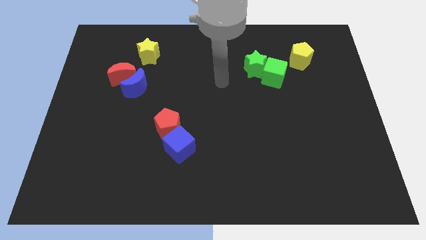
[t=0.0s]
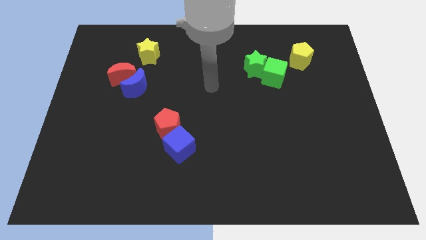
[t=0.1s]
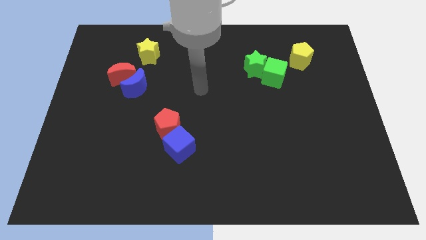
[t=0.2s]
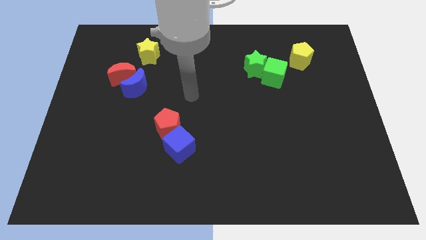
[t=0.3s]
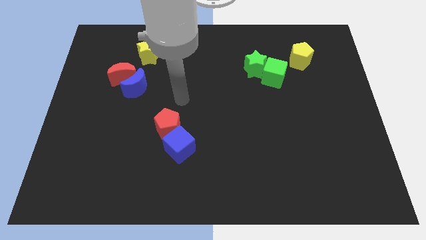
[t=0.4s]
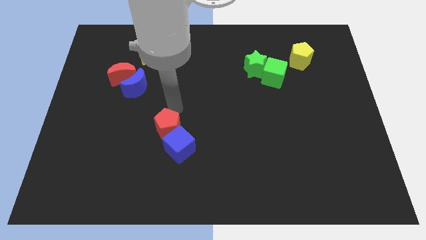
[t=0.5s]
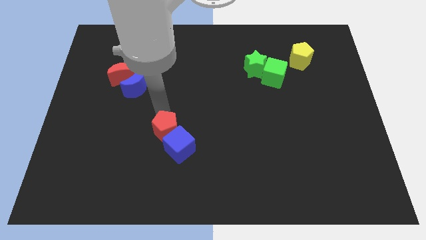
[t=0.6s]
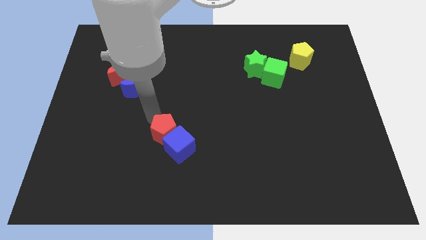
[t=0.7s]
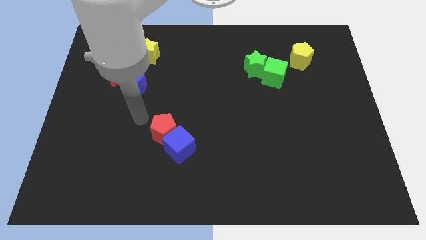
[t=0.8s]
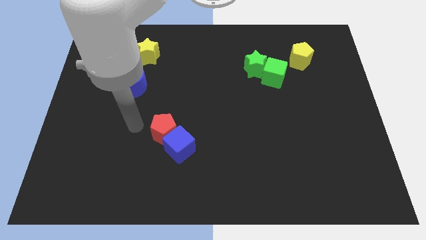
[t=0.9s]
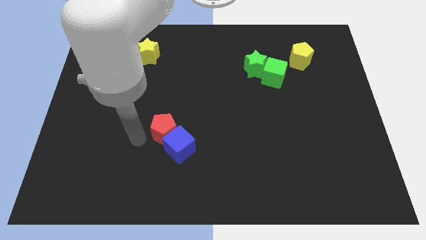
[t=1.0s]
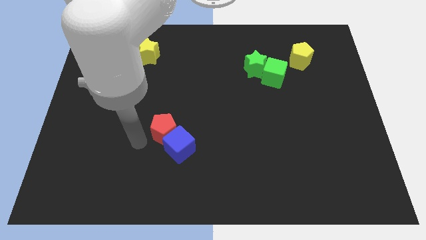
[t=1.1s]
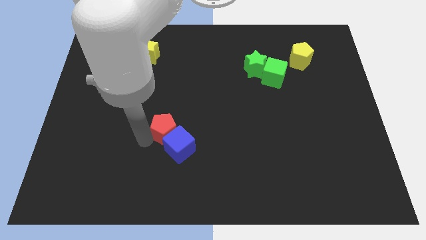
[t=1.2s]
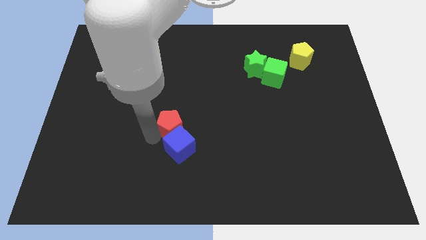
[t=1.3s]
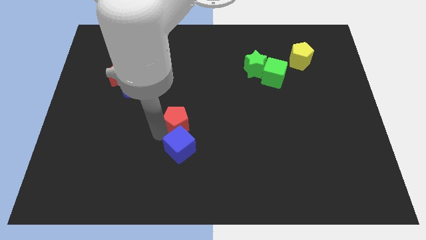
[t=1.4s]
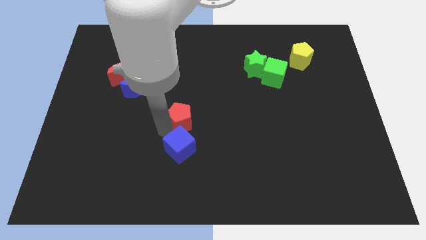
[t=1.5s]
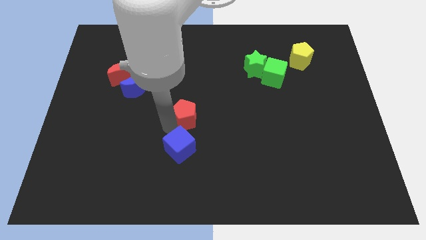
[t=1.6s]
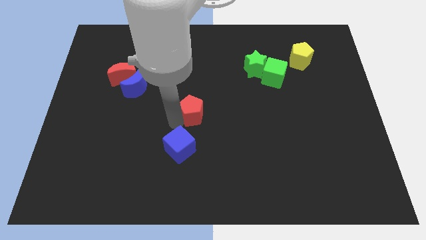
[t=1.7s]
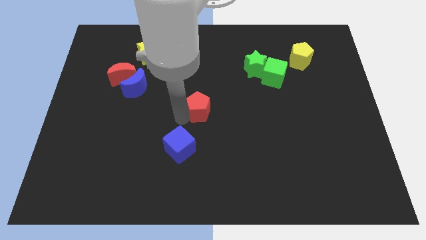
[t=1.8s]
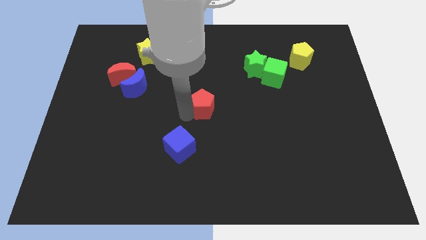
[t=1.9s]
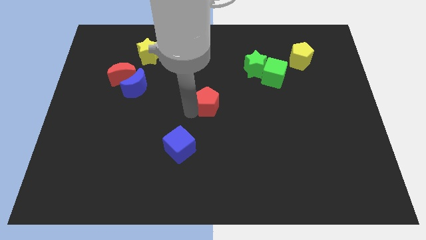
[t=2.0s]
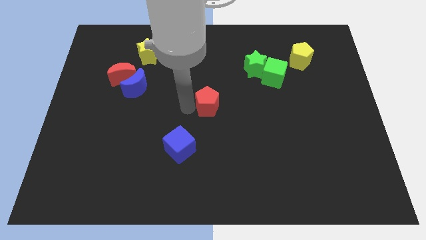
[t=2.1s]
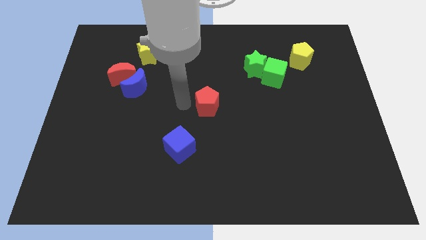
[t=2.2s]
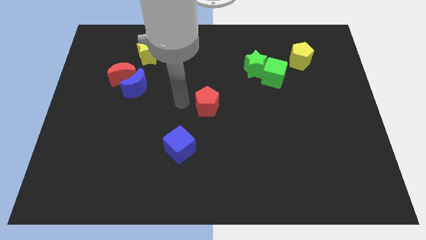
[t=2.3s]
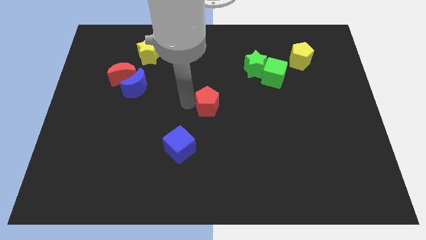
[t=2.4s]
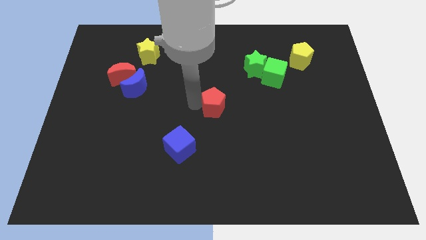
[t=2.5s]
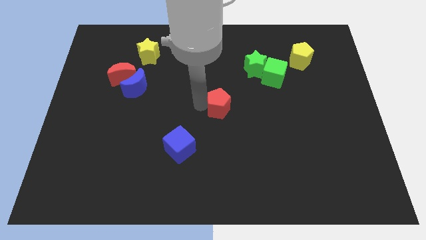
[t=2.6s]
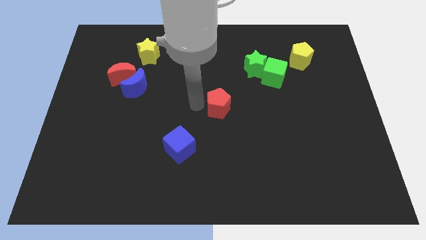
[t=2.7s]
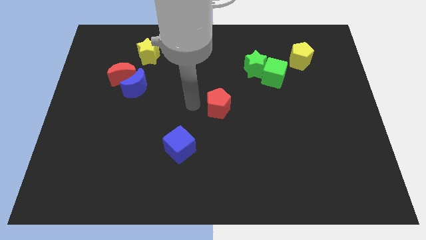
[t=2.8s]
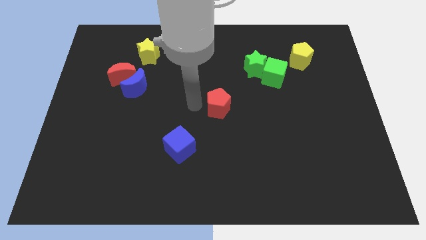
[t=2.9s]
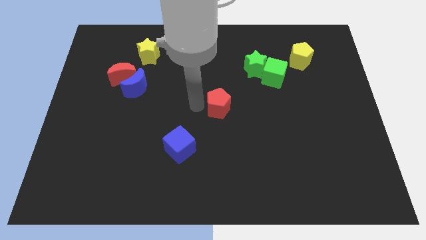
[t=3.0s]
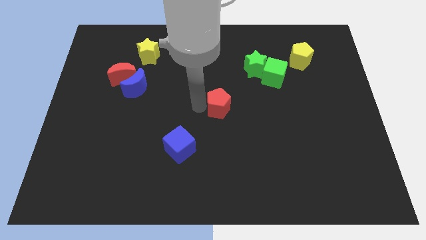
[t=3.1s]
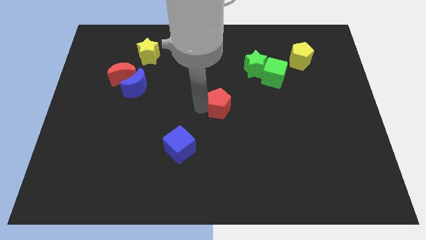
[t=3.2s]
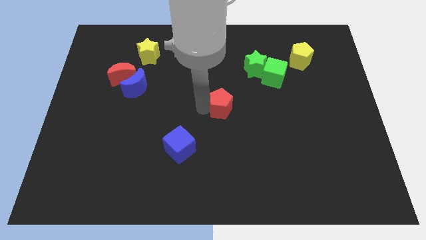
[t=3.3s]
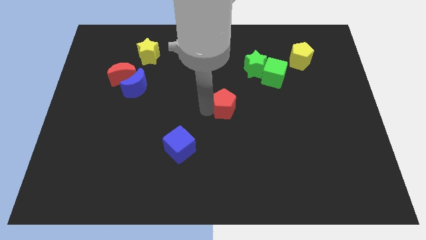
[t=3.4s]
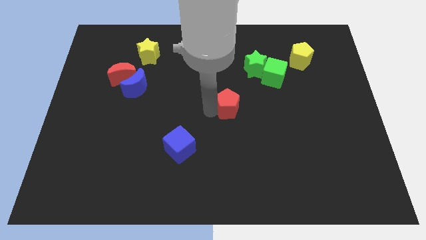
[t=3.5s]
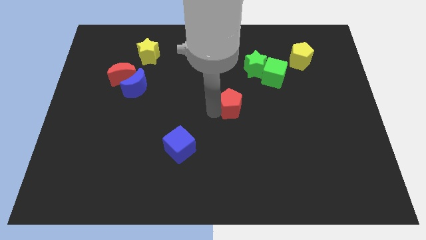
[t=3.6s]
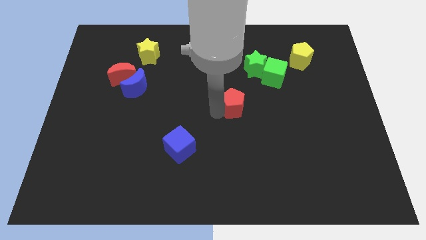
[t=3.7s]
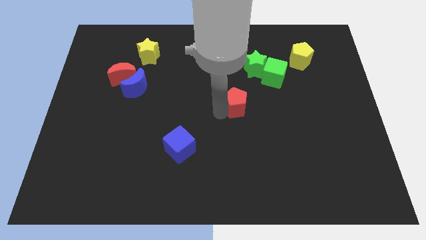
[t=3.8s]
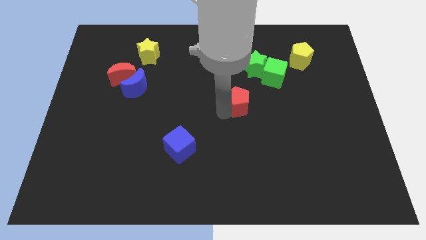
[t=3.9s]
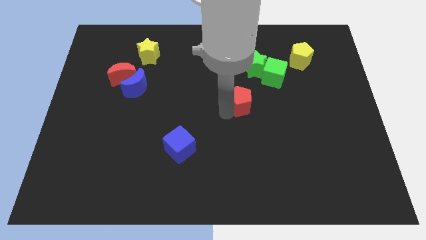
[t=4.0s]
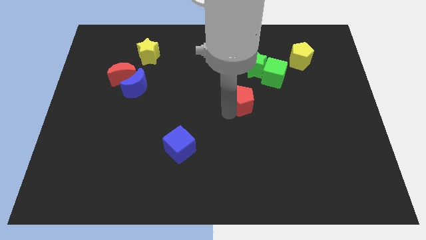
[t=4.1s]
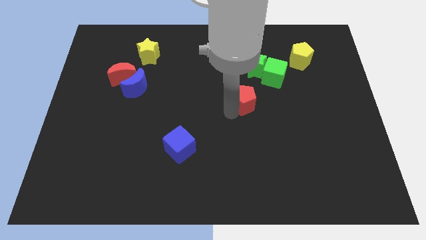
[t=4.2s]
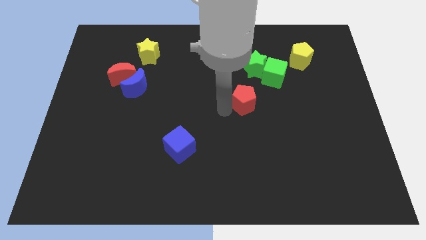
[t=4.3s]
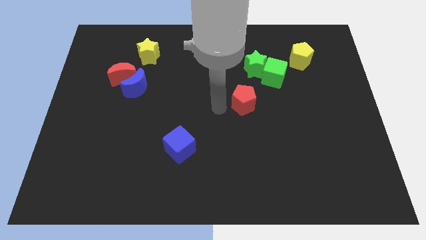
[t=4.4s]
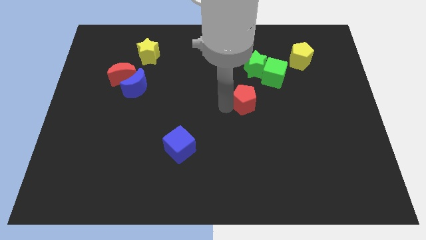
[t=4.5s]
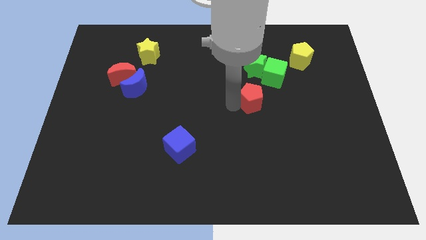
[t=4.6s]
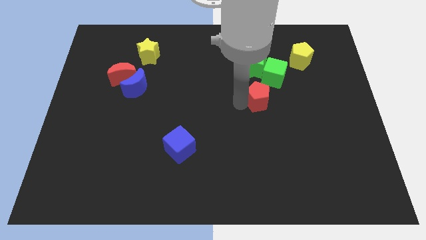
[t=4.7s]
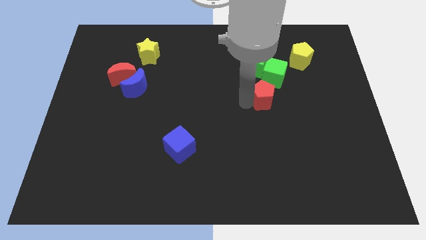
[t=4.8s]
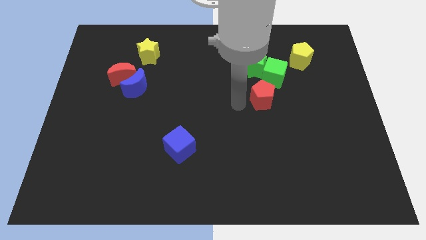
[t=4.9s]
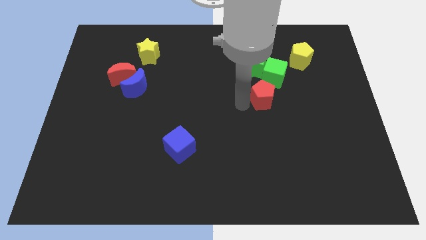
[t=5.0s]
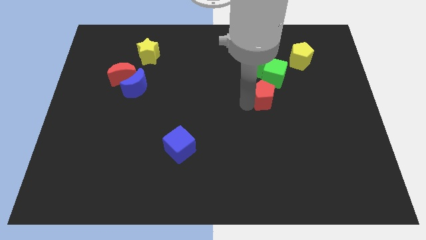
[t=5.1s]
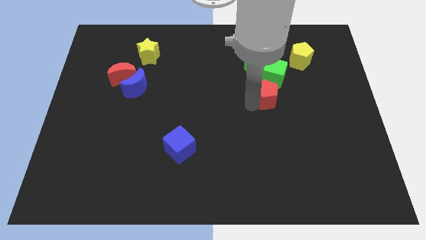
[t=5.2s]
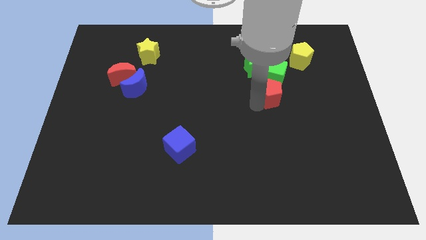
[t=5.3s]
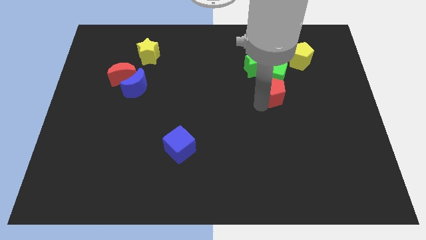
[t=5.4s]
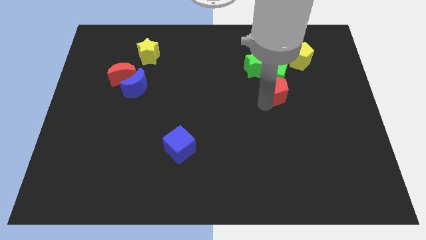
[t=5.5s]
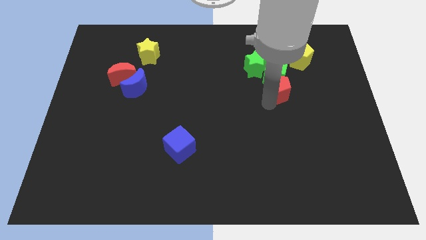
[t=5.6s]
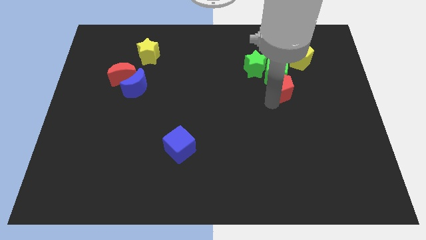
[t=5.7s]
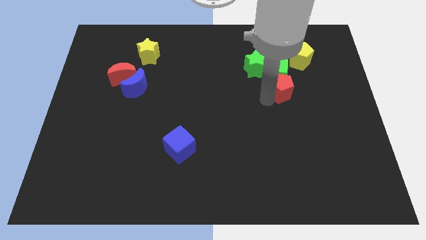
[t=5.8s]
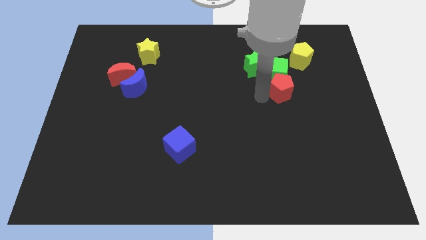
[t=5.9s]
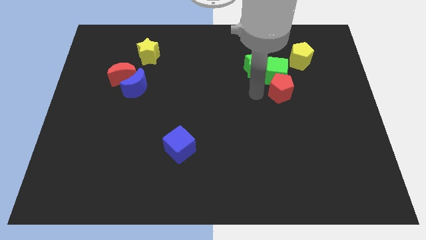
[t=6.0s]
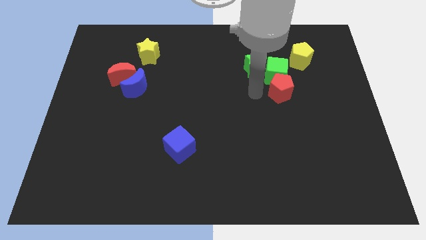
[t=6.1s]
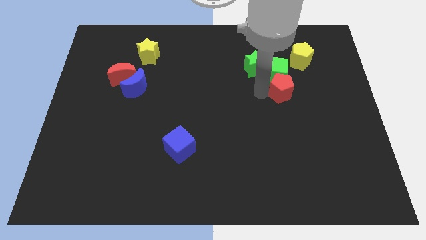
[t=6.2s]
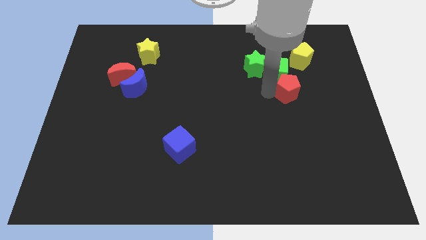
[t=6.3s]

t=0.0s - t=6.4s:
move the red pentagon below the yellow pentagon
